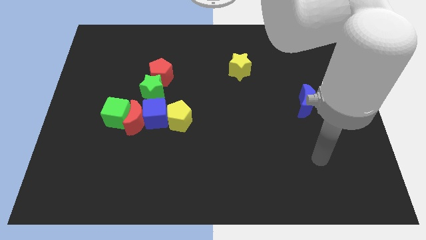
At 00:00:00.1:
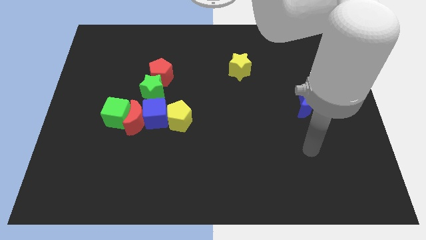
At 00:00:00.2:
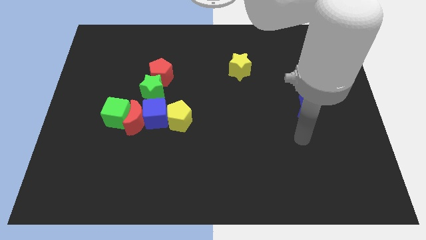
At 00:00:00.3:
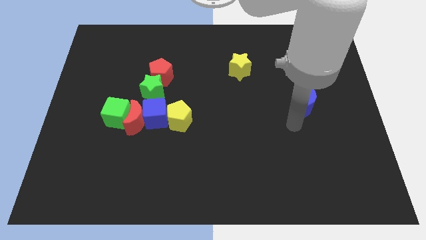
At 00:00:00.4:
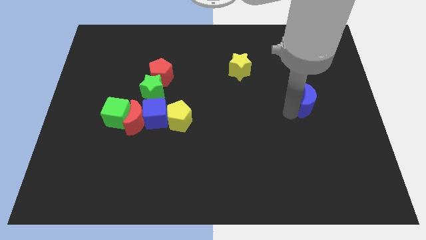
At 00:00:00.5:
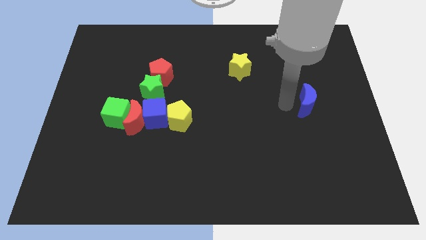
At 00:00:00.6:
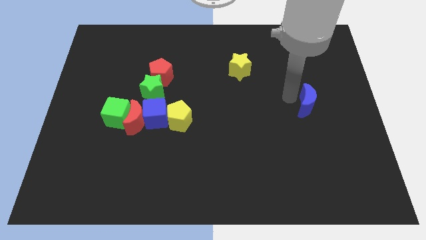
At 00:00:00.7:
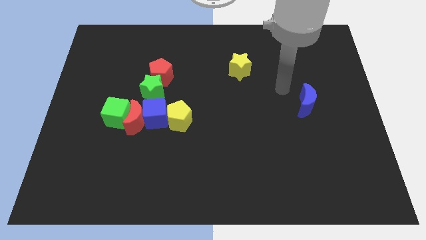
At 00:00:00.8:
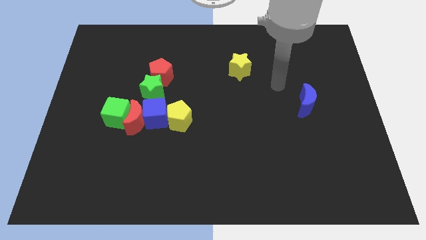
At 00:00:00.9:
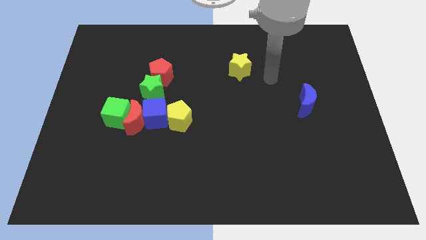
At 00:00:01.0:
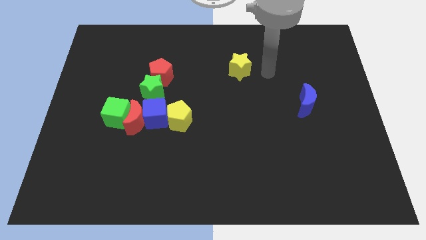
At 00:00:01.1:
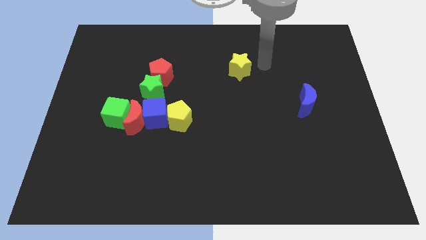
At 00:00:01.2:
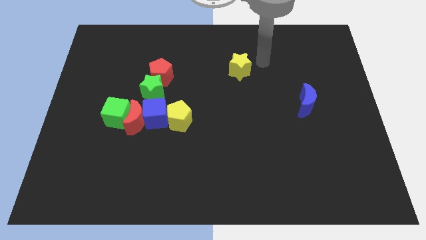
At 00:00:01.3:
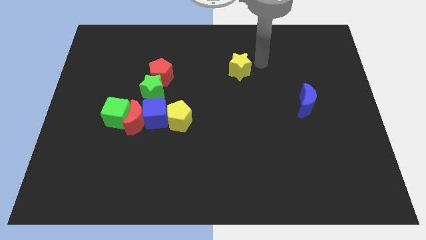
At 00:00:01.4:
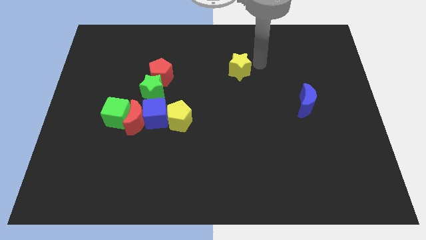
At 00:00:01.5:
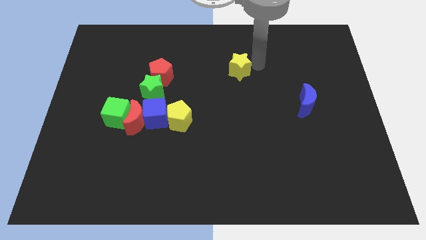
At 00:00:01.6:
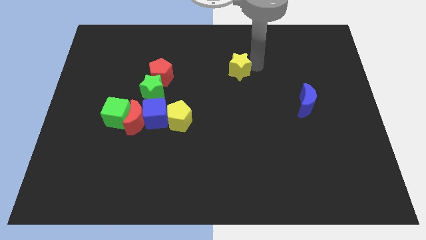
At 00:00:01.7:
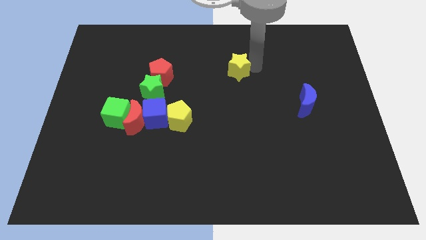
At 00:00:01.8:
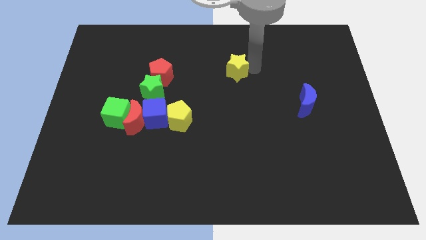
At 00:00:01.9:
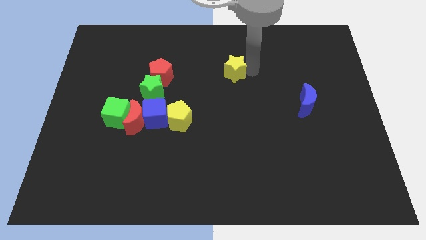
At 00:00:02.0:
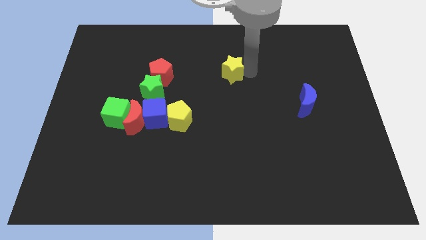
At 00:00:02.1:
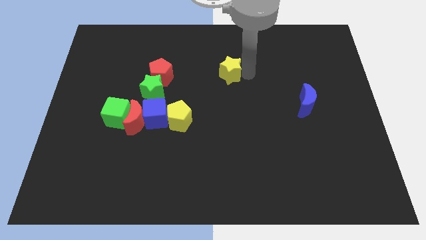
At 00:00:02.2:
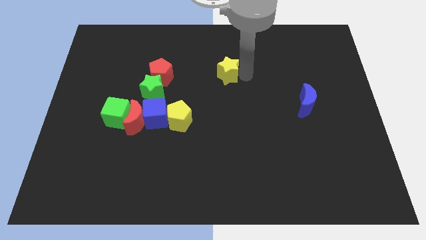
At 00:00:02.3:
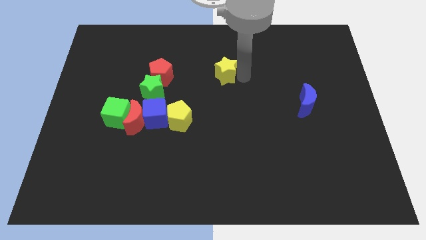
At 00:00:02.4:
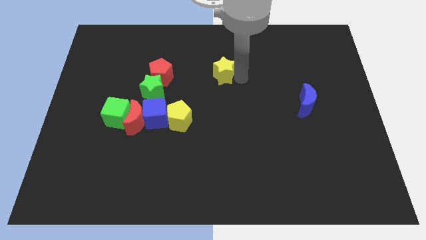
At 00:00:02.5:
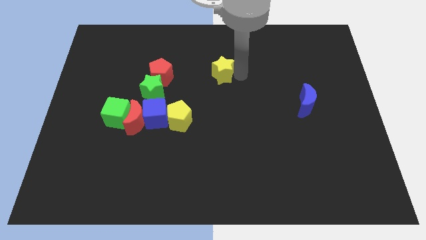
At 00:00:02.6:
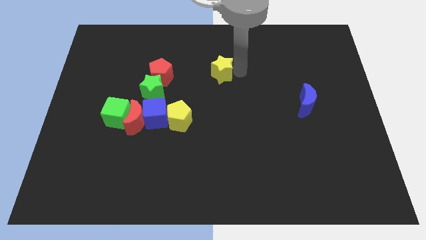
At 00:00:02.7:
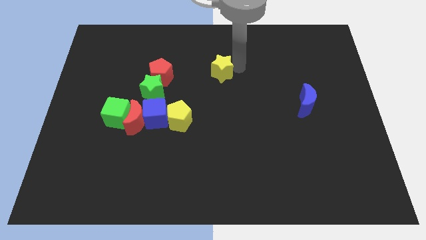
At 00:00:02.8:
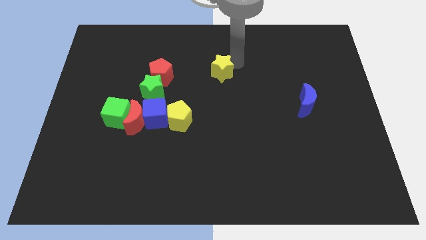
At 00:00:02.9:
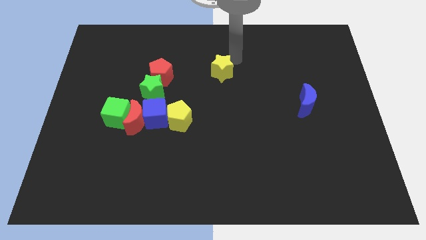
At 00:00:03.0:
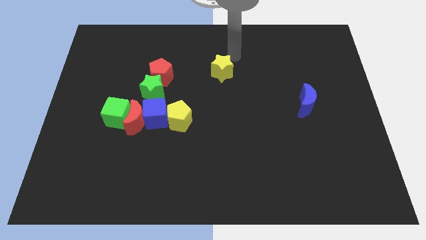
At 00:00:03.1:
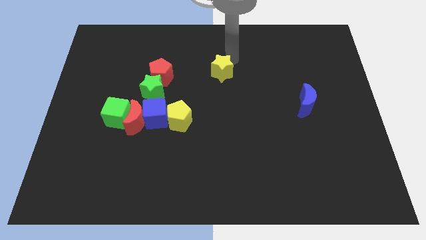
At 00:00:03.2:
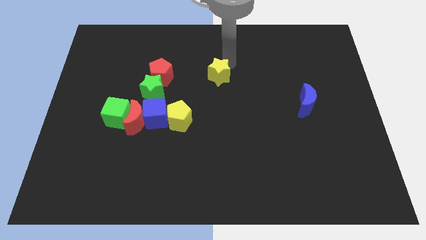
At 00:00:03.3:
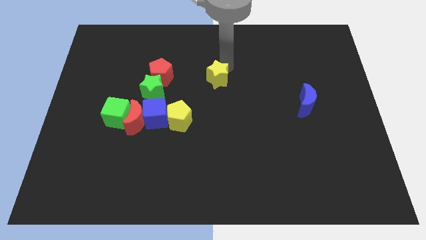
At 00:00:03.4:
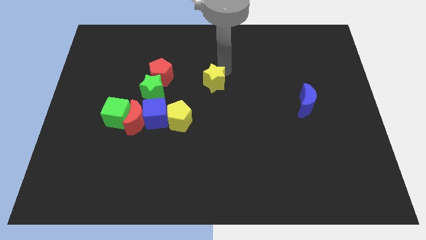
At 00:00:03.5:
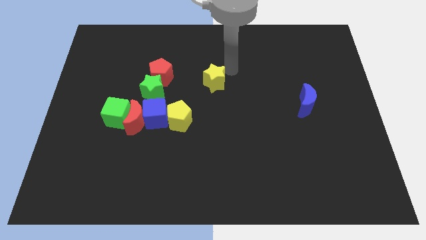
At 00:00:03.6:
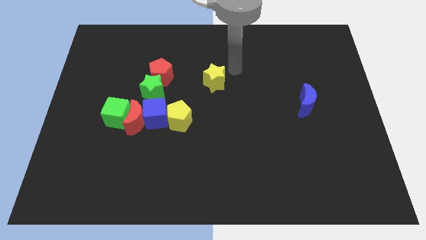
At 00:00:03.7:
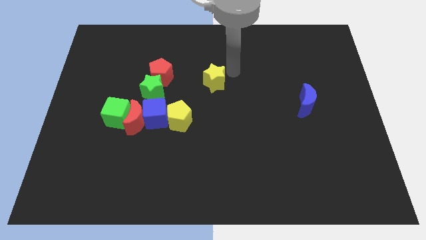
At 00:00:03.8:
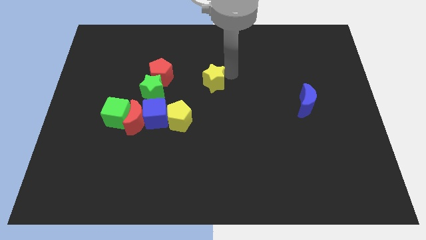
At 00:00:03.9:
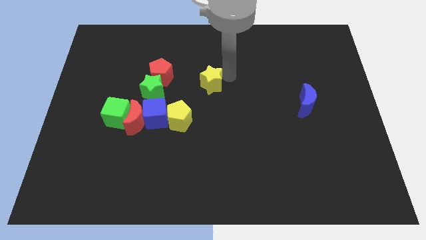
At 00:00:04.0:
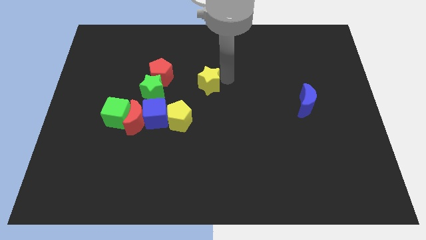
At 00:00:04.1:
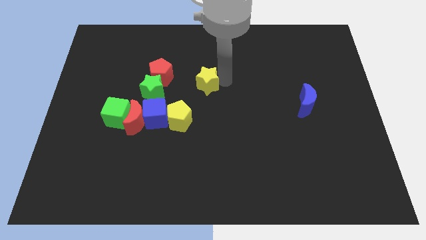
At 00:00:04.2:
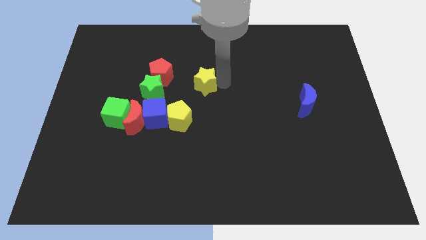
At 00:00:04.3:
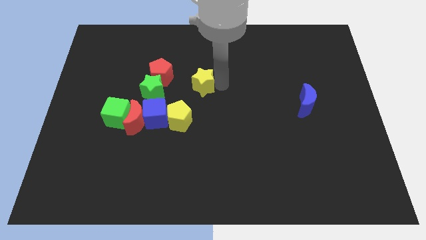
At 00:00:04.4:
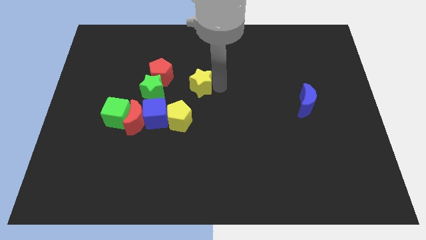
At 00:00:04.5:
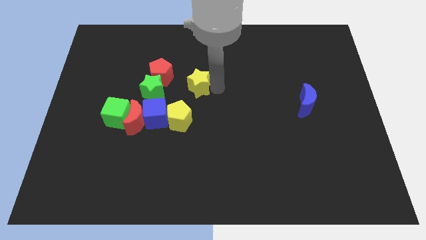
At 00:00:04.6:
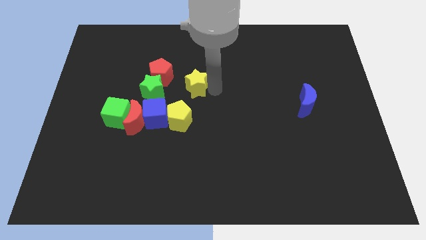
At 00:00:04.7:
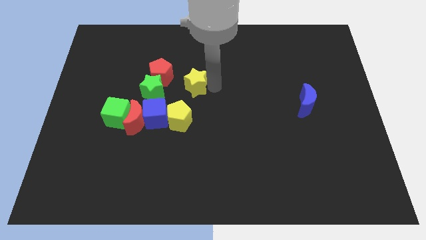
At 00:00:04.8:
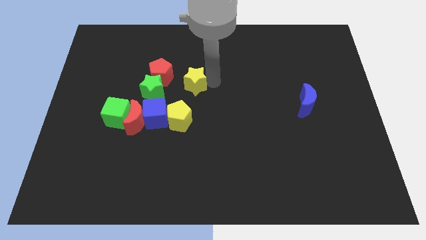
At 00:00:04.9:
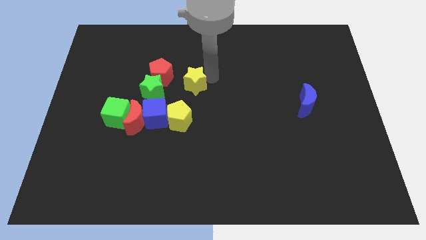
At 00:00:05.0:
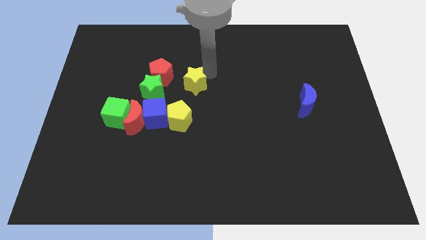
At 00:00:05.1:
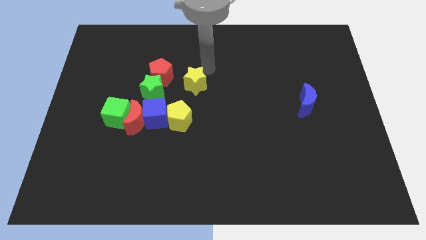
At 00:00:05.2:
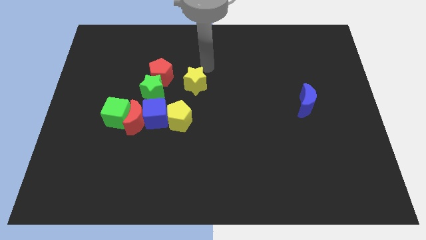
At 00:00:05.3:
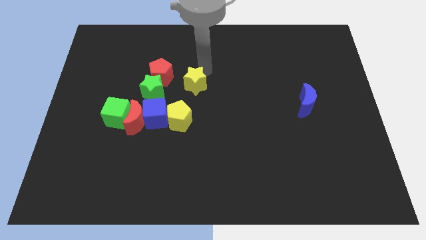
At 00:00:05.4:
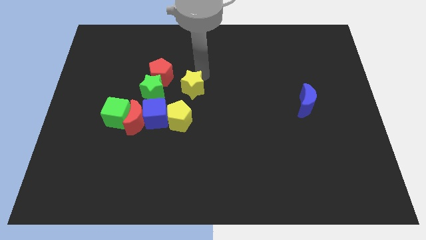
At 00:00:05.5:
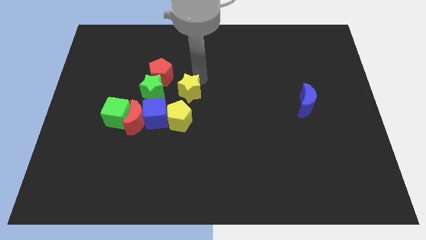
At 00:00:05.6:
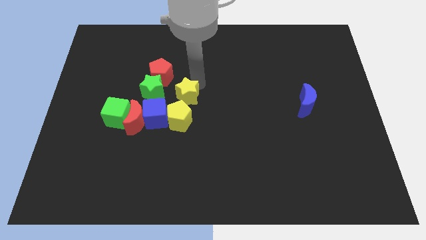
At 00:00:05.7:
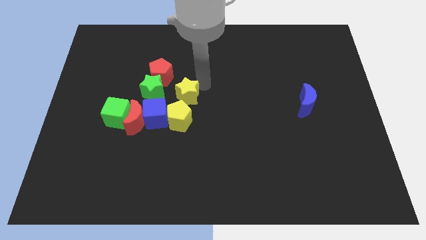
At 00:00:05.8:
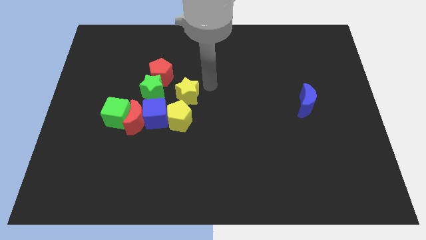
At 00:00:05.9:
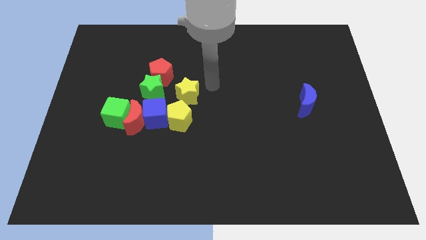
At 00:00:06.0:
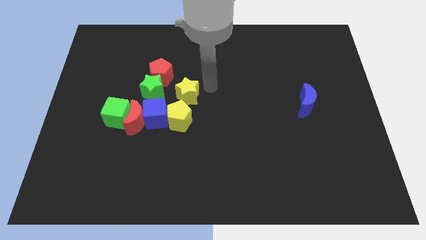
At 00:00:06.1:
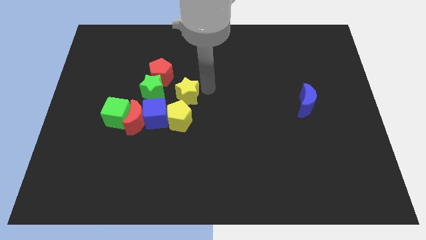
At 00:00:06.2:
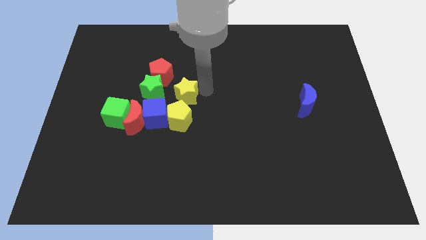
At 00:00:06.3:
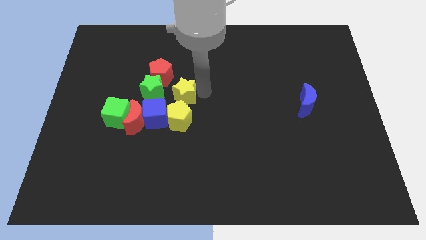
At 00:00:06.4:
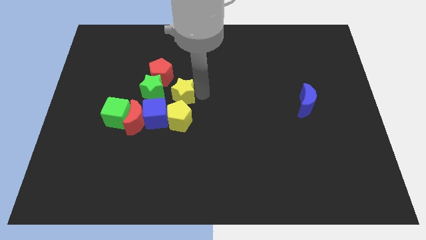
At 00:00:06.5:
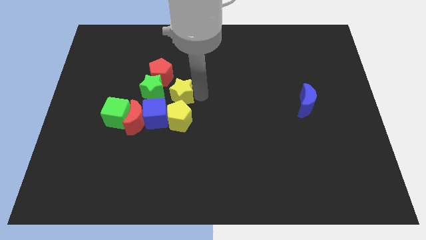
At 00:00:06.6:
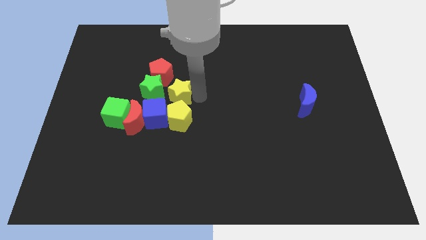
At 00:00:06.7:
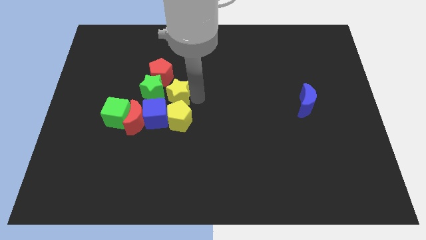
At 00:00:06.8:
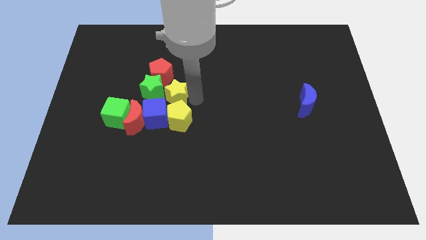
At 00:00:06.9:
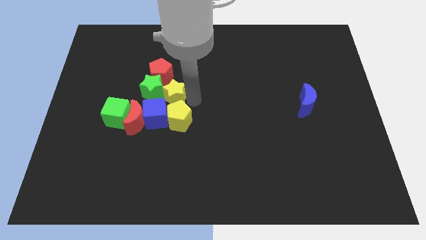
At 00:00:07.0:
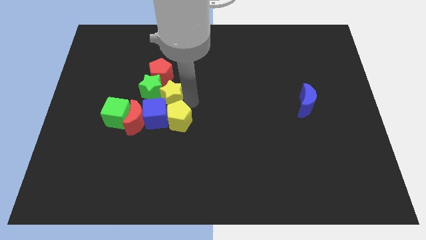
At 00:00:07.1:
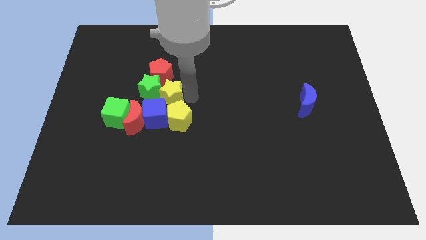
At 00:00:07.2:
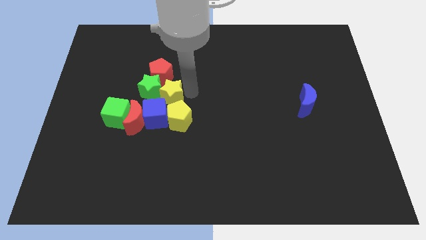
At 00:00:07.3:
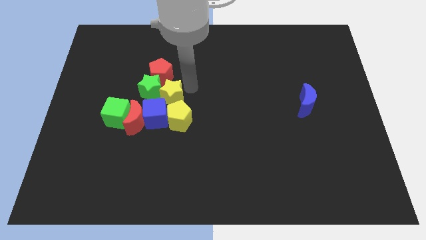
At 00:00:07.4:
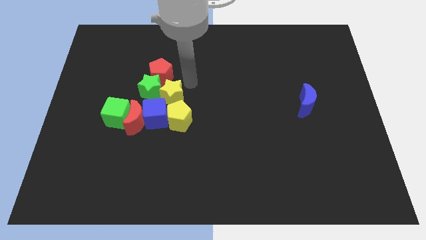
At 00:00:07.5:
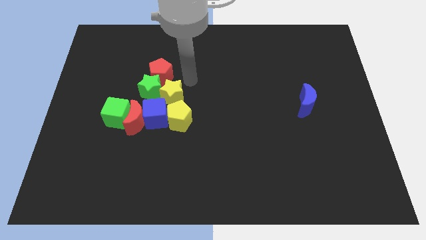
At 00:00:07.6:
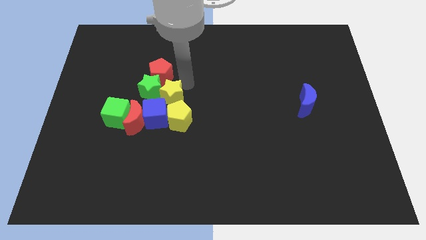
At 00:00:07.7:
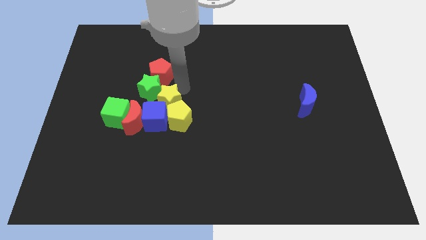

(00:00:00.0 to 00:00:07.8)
put the yellow star close to the blue cube
